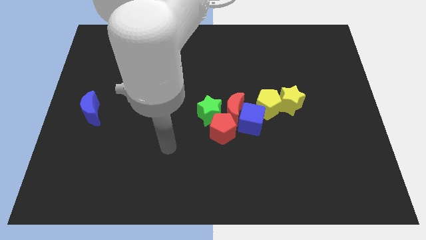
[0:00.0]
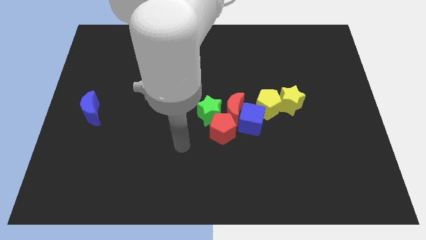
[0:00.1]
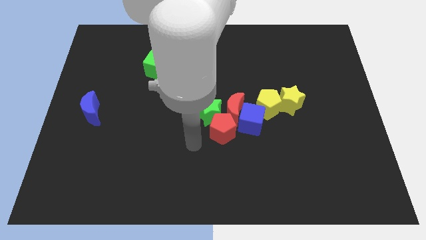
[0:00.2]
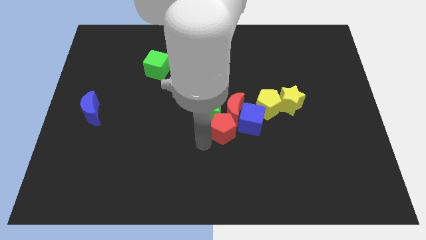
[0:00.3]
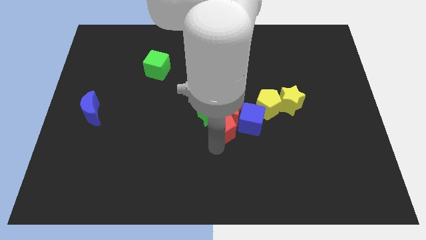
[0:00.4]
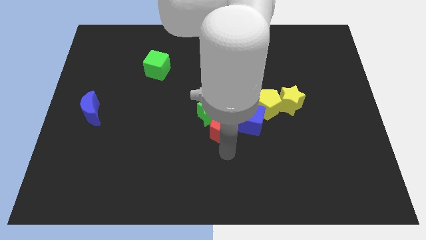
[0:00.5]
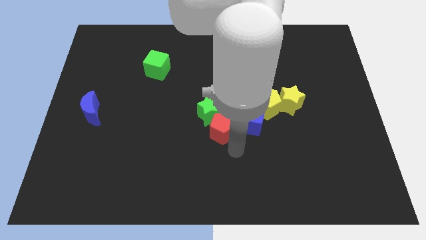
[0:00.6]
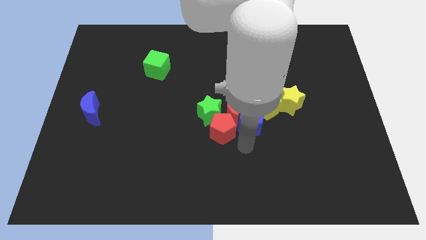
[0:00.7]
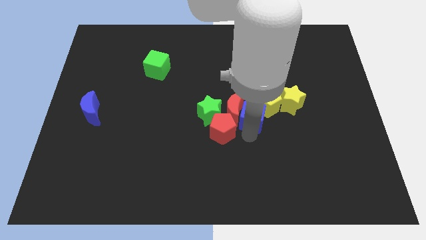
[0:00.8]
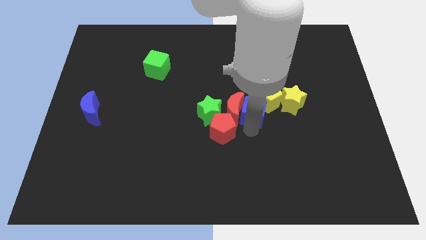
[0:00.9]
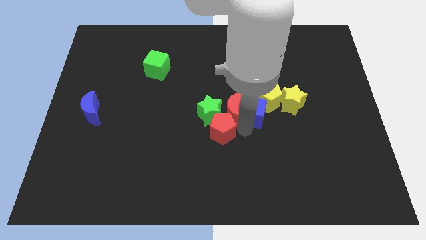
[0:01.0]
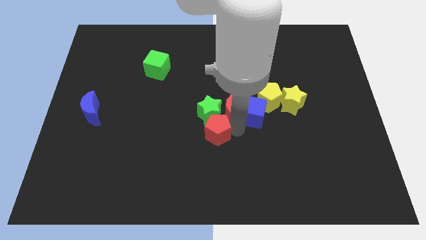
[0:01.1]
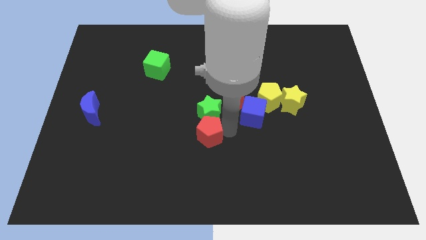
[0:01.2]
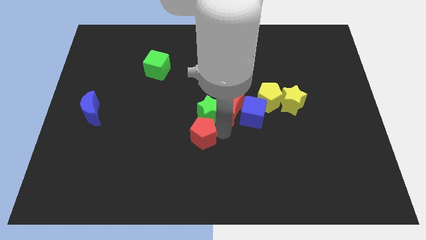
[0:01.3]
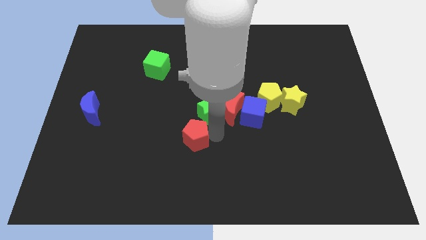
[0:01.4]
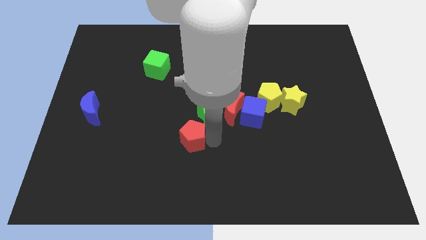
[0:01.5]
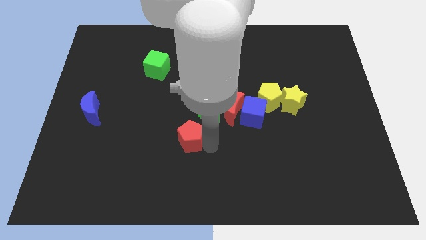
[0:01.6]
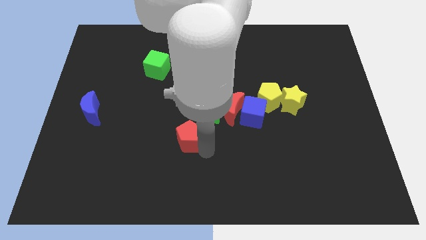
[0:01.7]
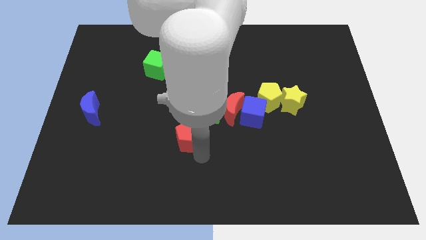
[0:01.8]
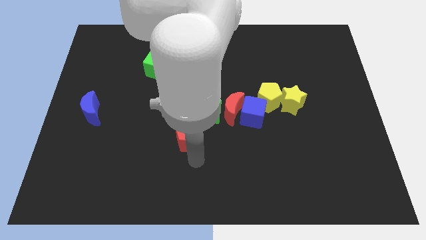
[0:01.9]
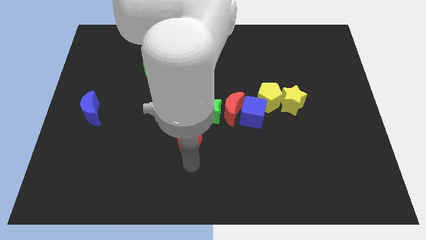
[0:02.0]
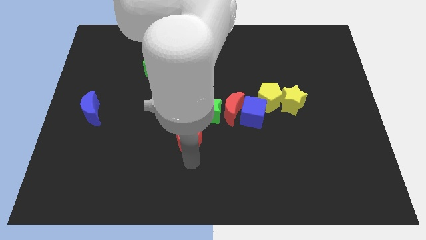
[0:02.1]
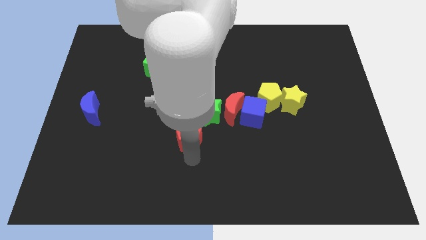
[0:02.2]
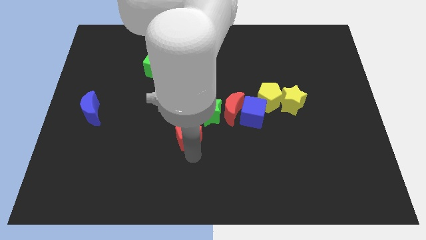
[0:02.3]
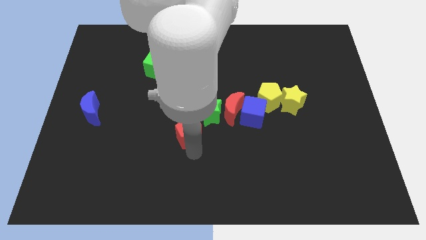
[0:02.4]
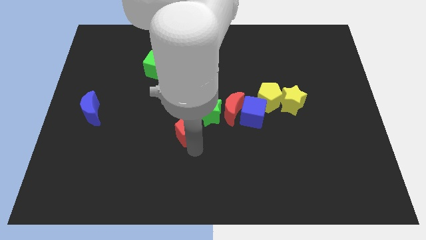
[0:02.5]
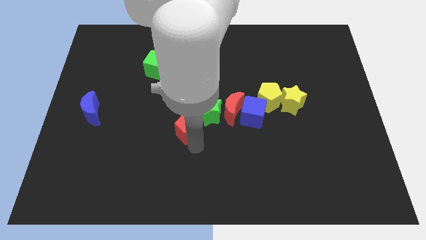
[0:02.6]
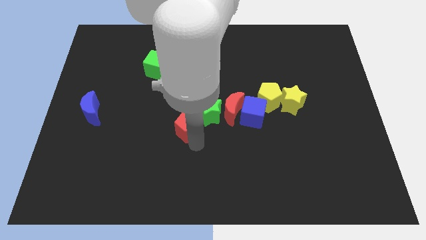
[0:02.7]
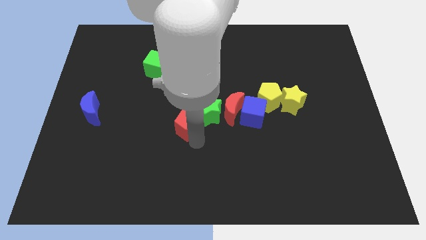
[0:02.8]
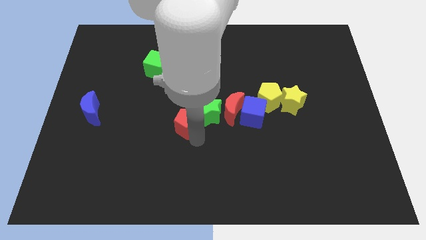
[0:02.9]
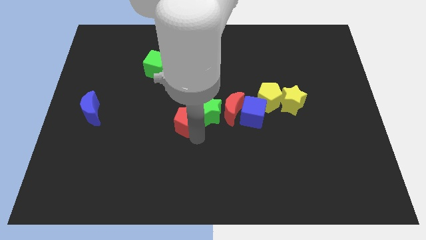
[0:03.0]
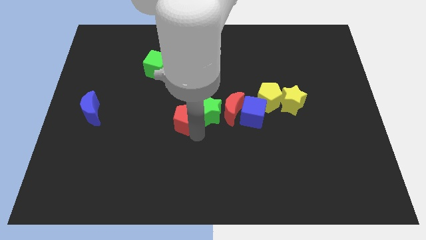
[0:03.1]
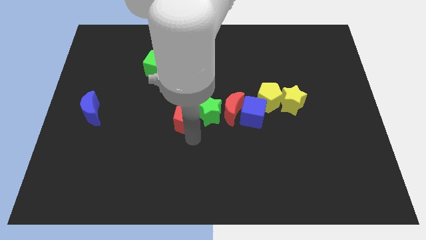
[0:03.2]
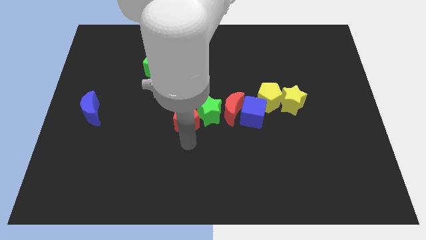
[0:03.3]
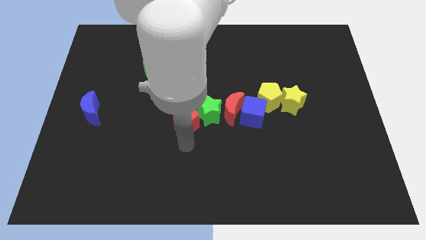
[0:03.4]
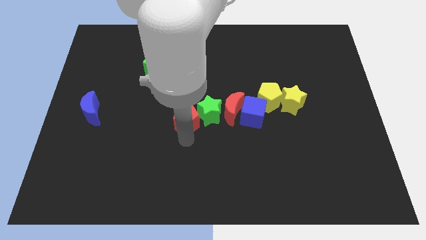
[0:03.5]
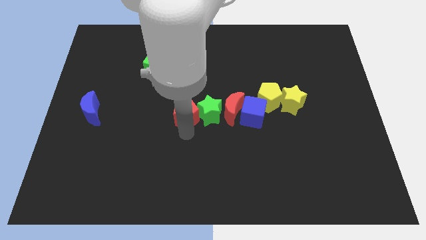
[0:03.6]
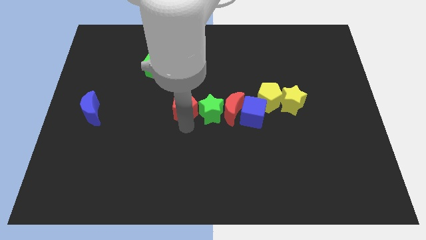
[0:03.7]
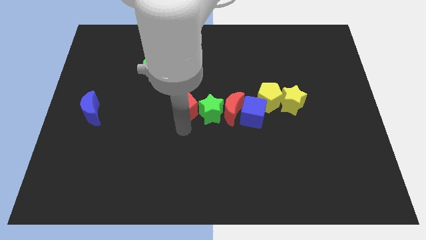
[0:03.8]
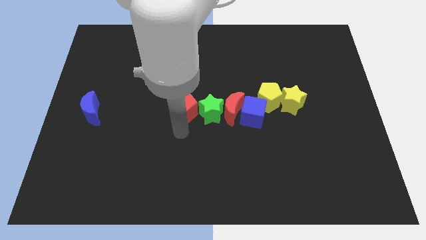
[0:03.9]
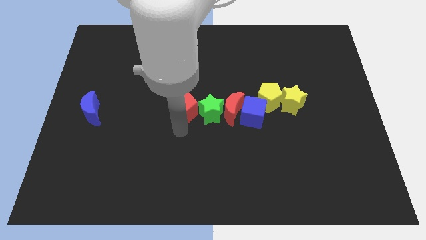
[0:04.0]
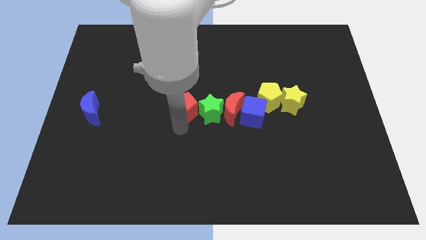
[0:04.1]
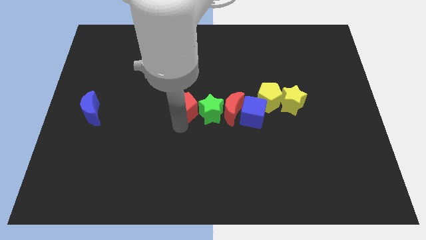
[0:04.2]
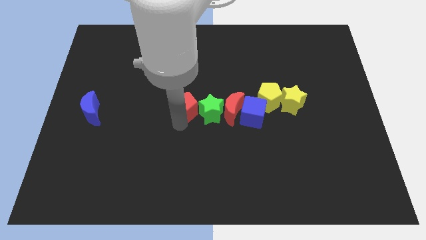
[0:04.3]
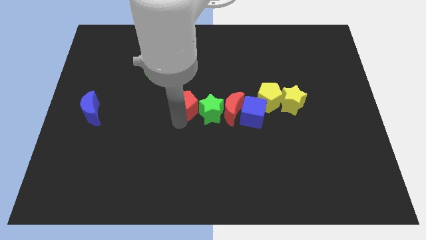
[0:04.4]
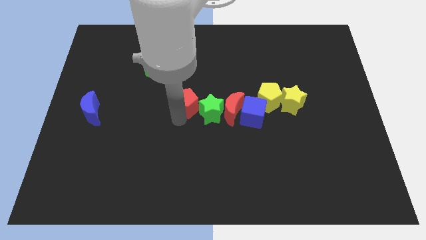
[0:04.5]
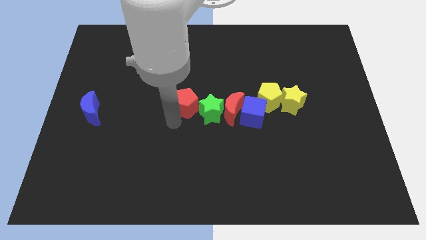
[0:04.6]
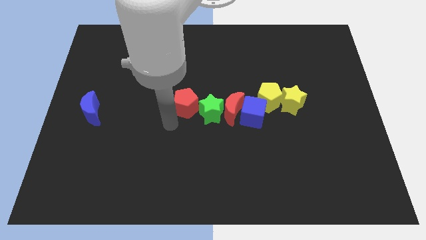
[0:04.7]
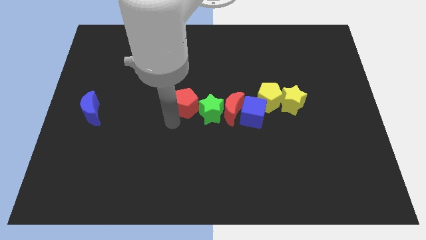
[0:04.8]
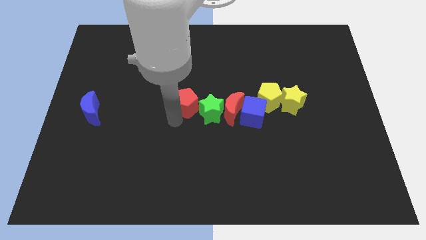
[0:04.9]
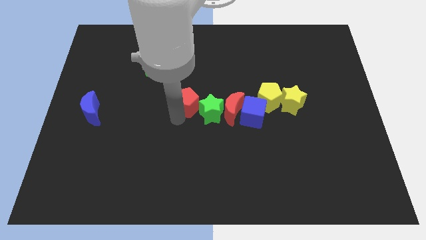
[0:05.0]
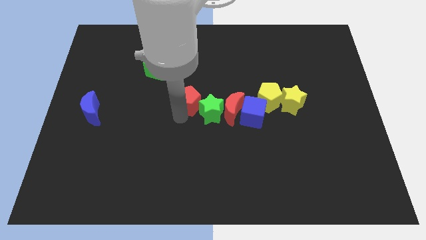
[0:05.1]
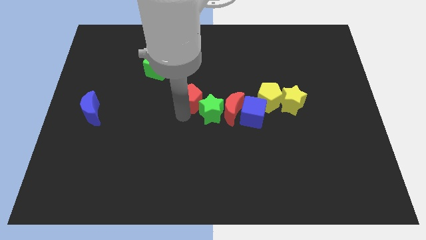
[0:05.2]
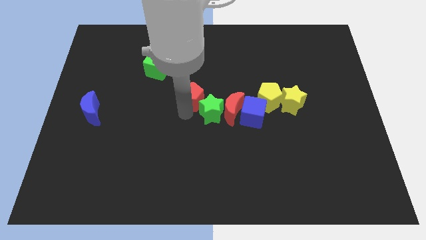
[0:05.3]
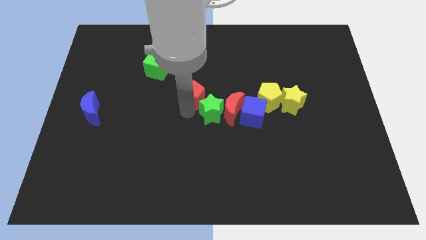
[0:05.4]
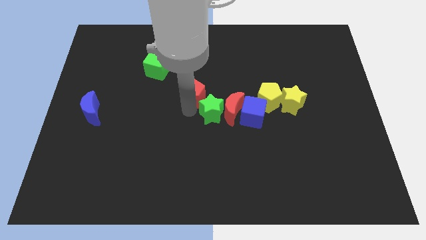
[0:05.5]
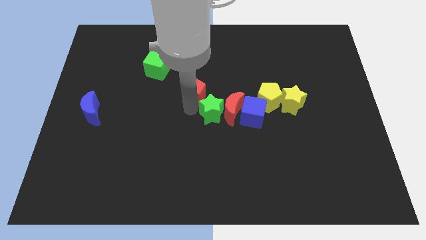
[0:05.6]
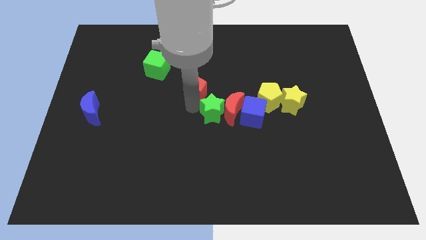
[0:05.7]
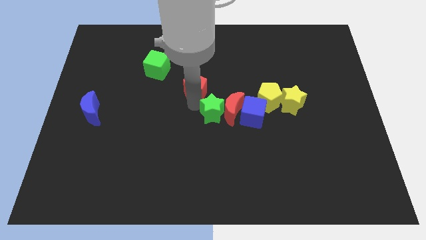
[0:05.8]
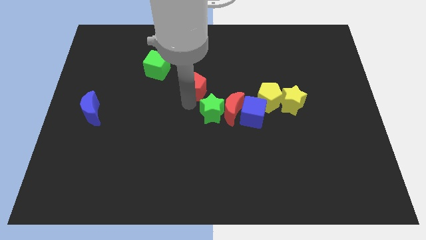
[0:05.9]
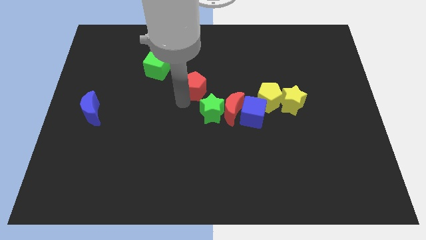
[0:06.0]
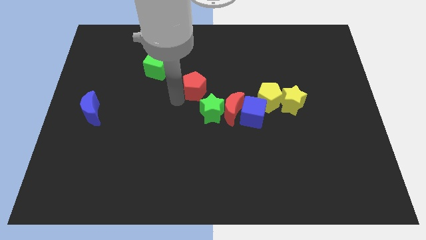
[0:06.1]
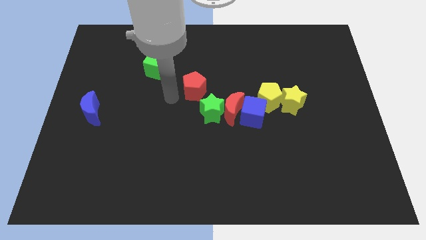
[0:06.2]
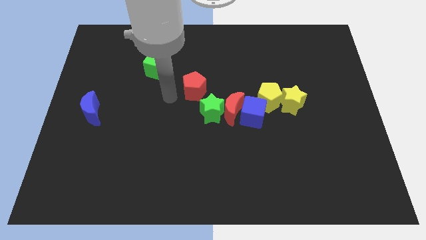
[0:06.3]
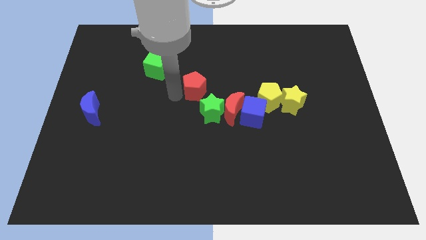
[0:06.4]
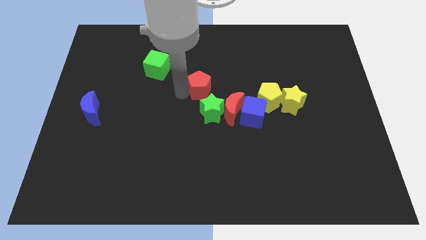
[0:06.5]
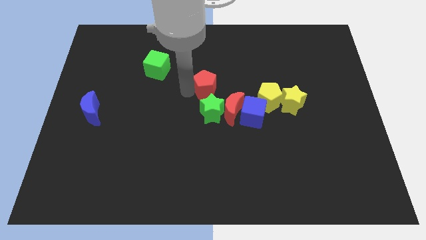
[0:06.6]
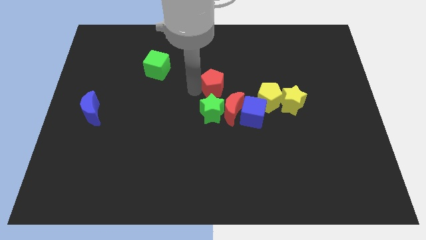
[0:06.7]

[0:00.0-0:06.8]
push the red pentagon above the red moon
